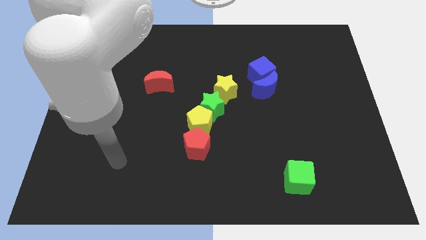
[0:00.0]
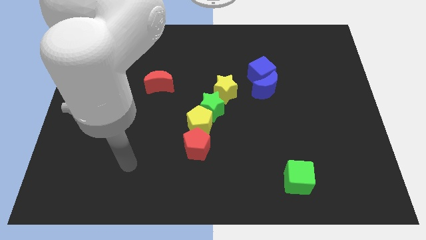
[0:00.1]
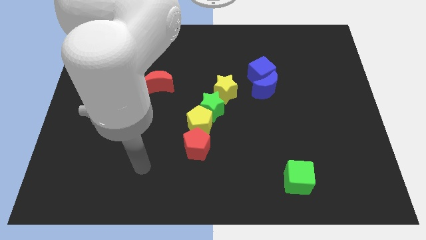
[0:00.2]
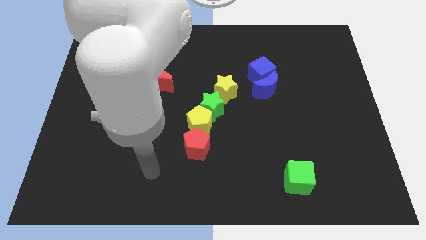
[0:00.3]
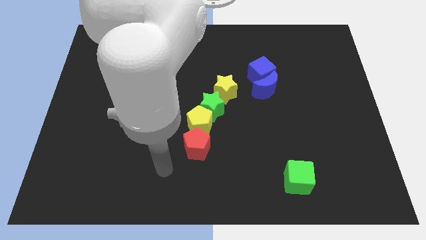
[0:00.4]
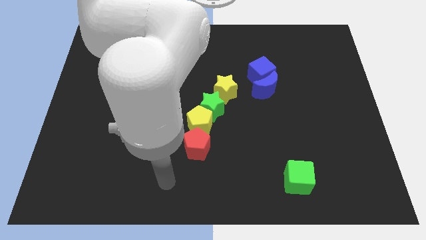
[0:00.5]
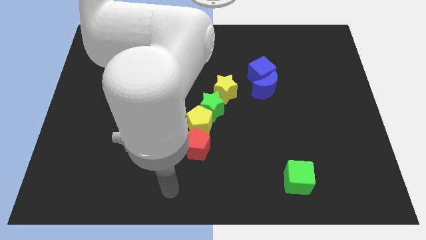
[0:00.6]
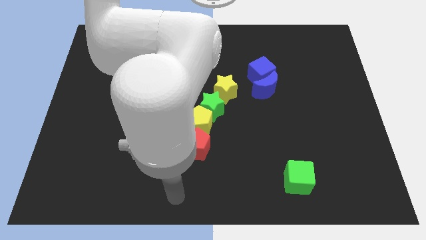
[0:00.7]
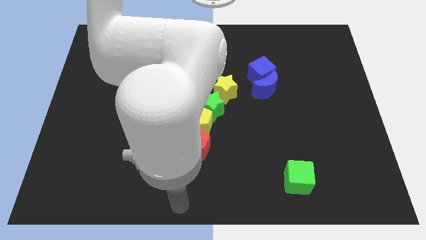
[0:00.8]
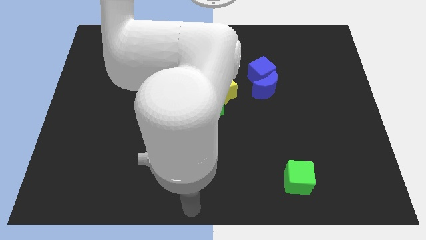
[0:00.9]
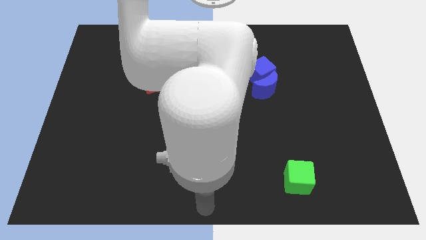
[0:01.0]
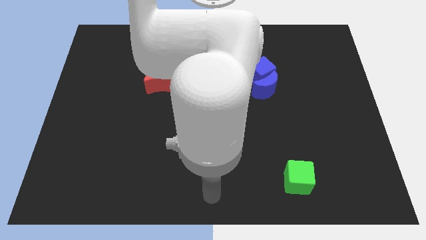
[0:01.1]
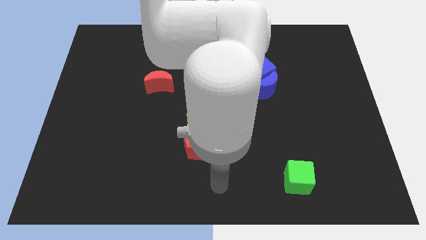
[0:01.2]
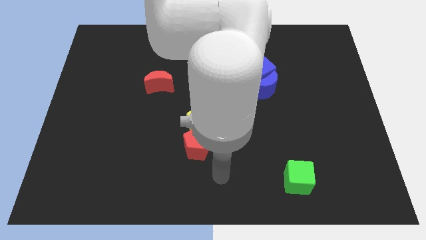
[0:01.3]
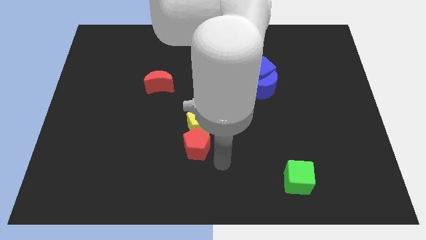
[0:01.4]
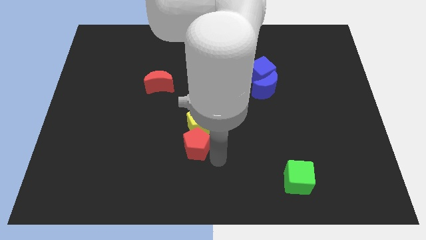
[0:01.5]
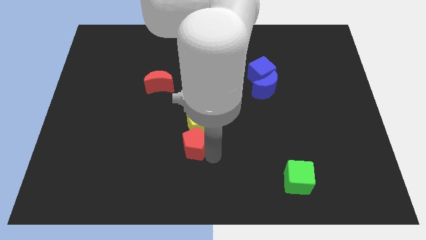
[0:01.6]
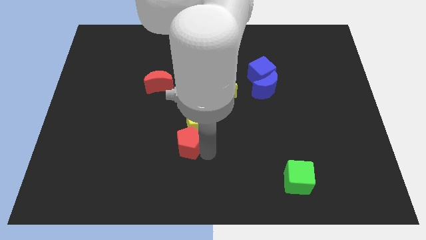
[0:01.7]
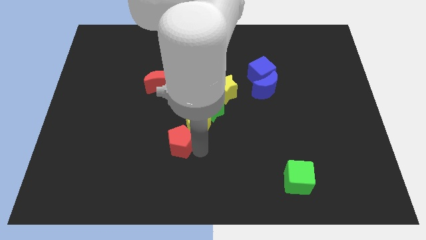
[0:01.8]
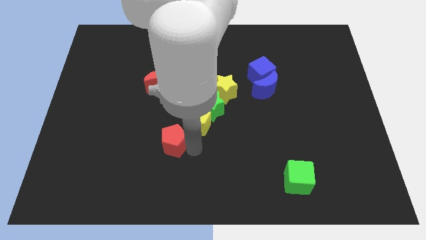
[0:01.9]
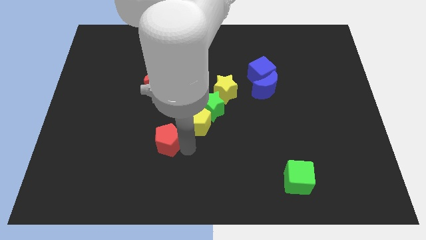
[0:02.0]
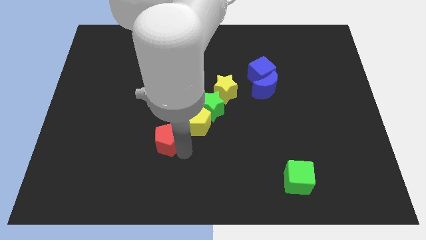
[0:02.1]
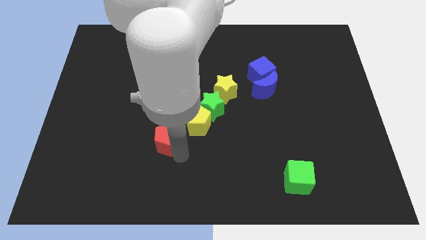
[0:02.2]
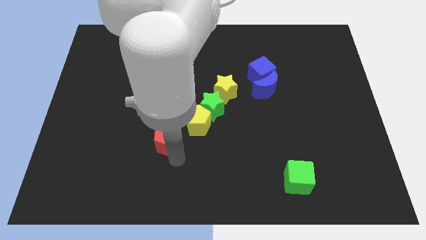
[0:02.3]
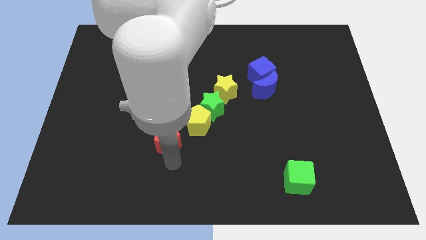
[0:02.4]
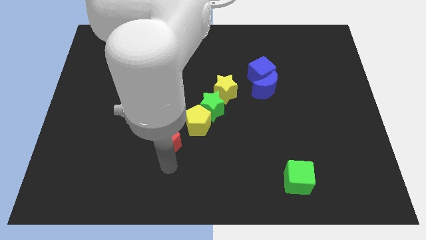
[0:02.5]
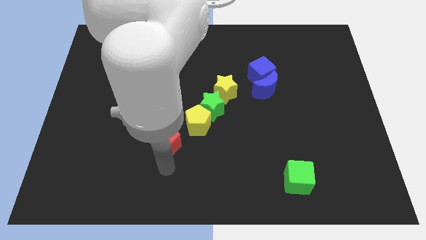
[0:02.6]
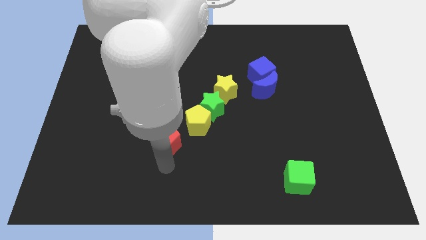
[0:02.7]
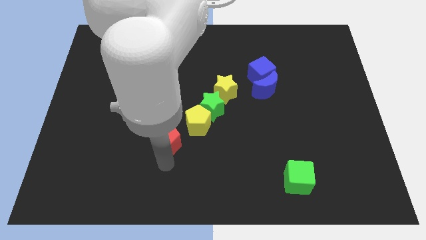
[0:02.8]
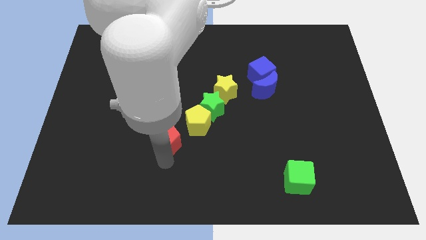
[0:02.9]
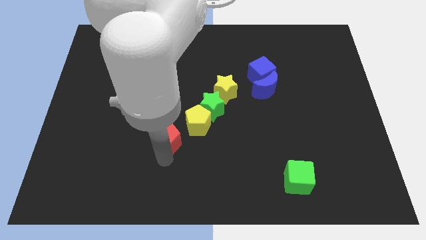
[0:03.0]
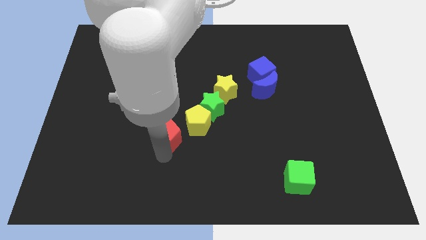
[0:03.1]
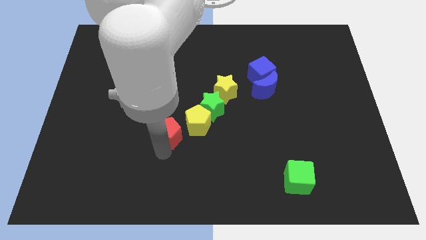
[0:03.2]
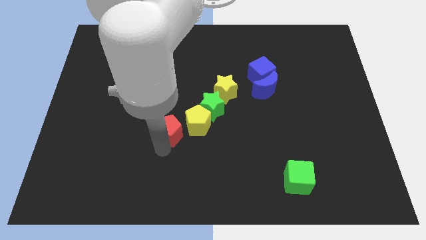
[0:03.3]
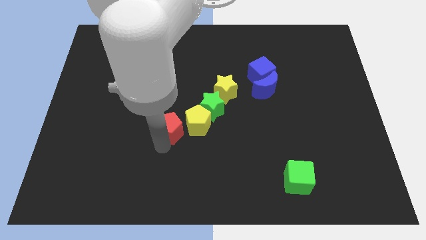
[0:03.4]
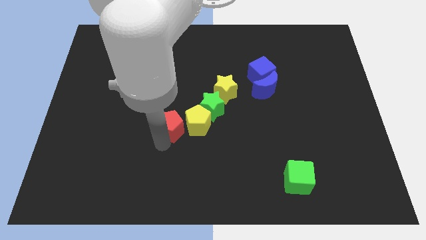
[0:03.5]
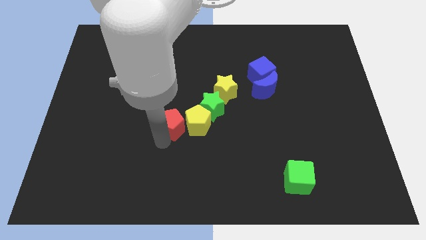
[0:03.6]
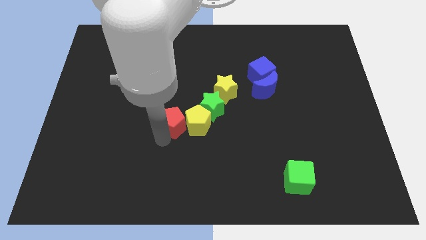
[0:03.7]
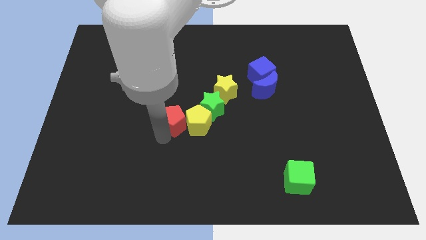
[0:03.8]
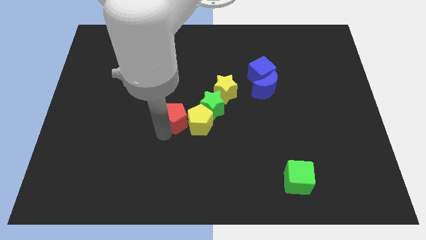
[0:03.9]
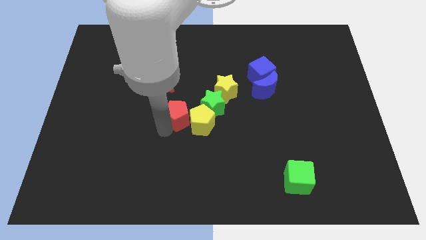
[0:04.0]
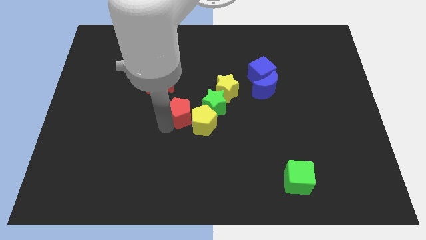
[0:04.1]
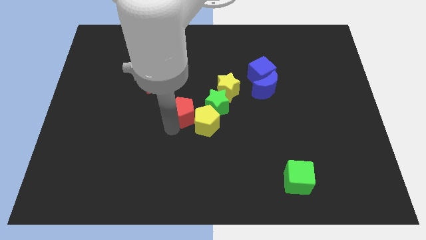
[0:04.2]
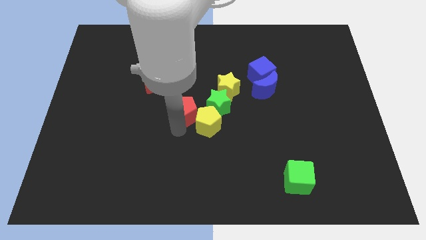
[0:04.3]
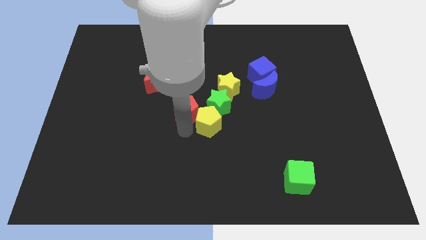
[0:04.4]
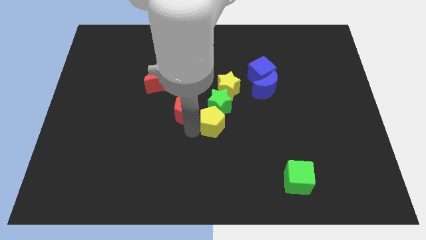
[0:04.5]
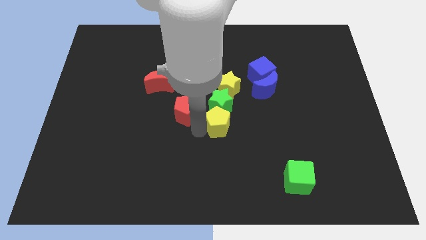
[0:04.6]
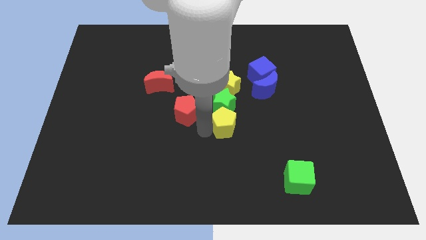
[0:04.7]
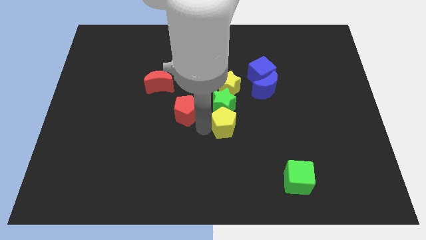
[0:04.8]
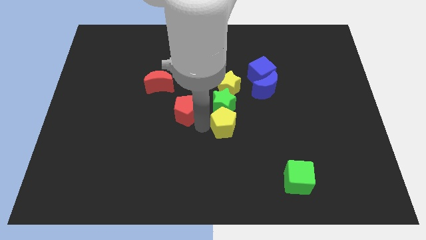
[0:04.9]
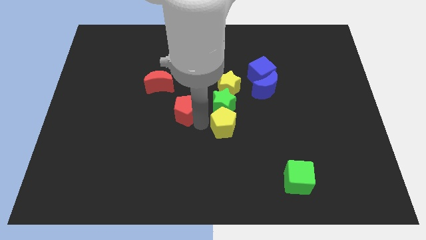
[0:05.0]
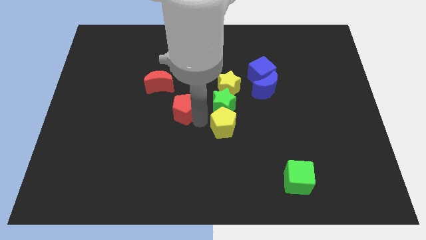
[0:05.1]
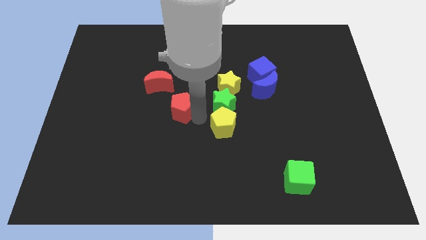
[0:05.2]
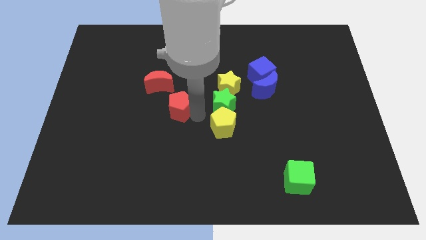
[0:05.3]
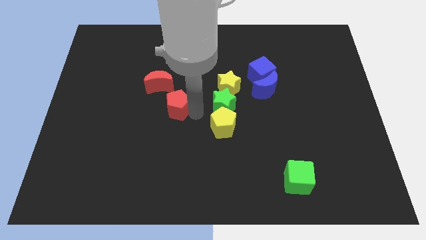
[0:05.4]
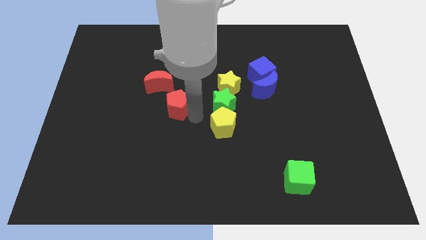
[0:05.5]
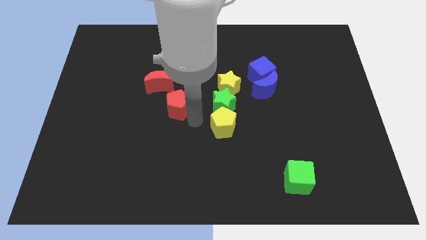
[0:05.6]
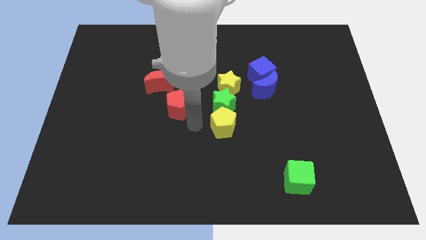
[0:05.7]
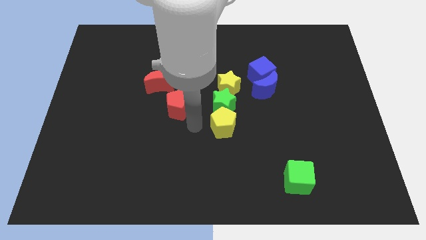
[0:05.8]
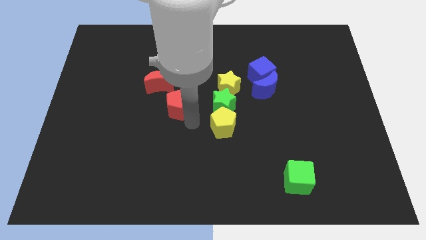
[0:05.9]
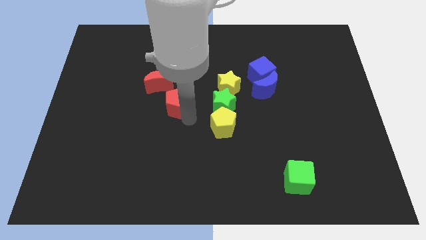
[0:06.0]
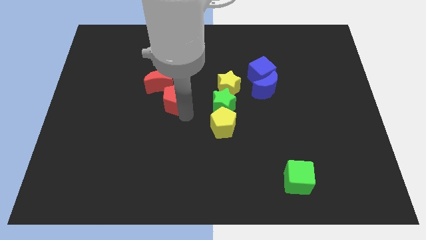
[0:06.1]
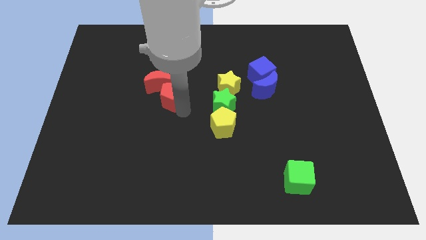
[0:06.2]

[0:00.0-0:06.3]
put the red pentagon to the red moon
